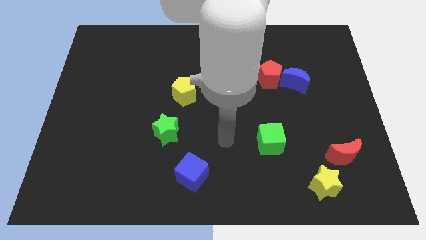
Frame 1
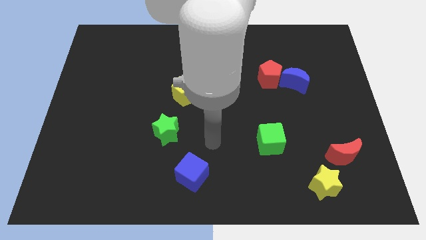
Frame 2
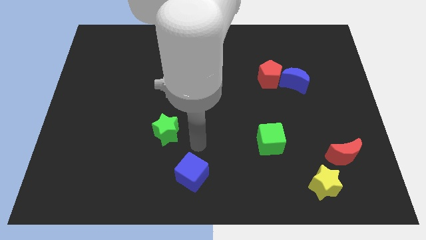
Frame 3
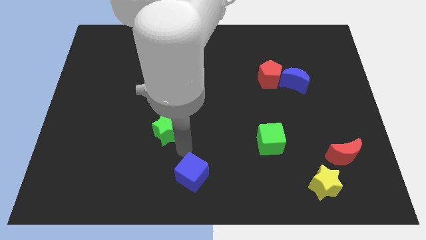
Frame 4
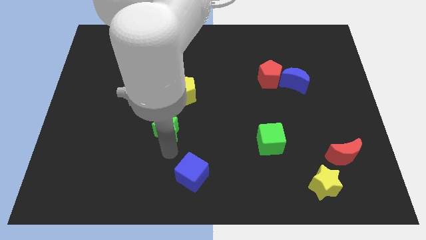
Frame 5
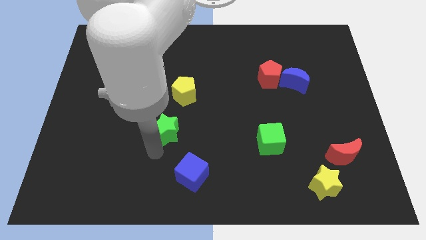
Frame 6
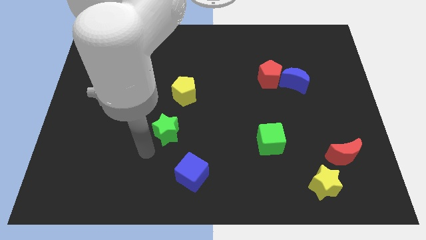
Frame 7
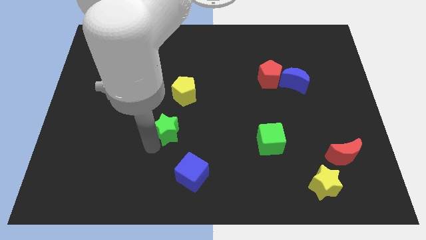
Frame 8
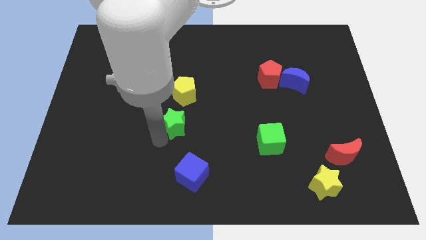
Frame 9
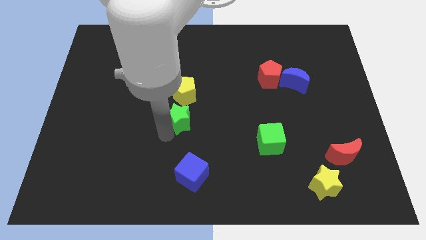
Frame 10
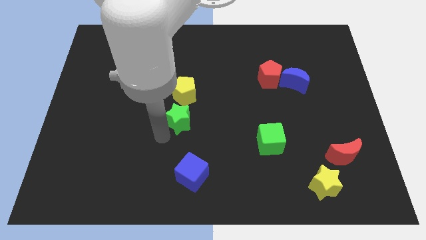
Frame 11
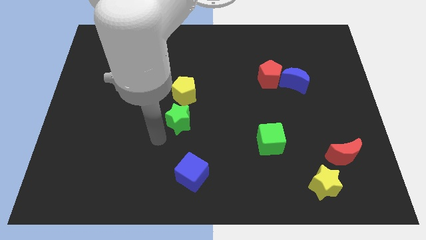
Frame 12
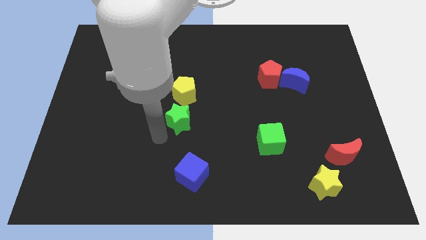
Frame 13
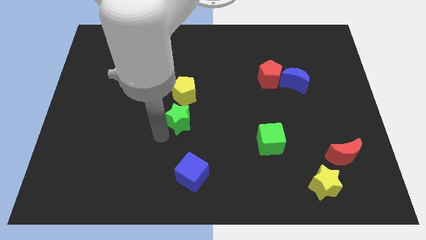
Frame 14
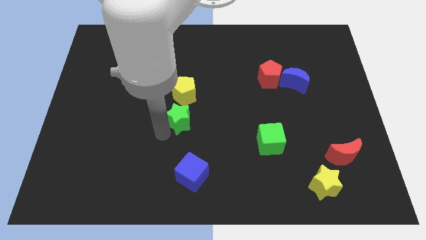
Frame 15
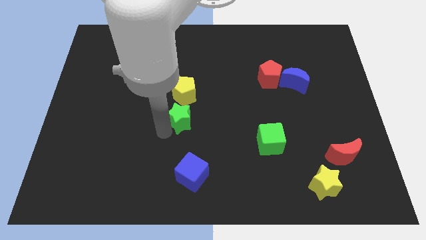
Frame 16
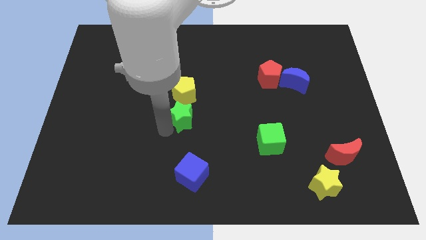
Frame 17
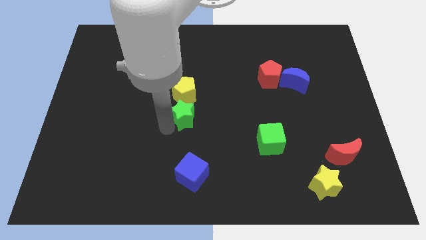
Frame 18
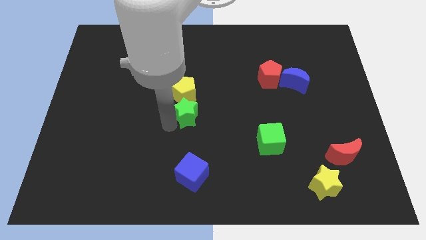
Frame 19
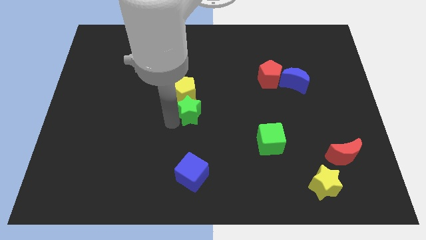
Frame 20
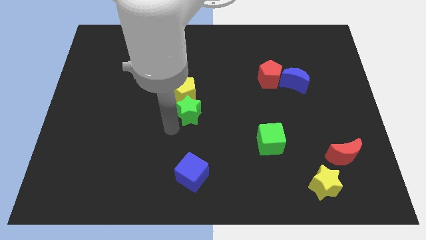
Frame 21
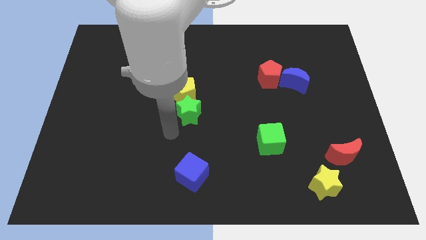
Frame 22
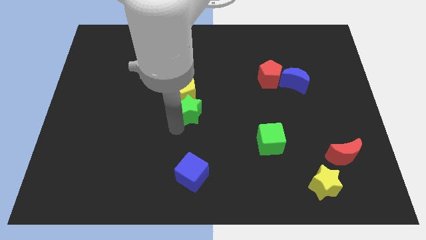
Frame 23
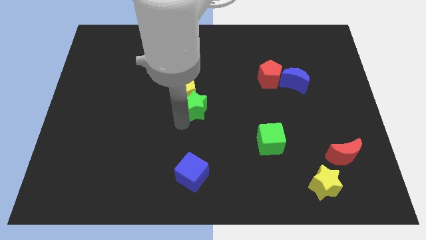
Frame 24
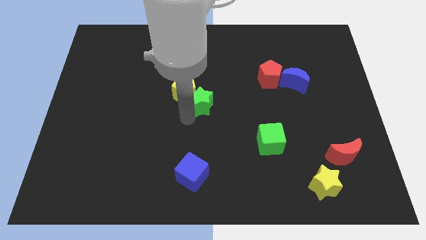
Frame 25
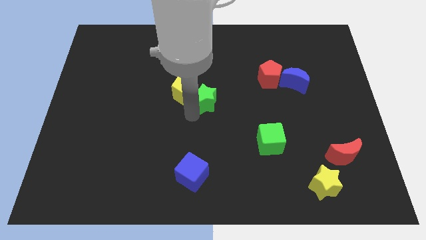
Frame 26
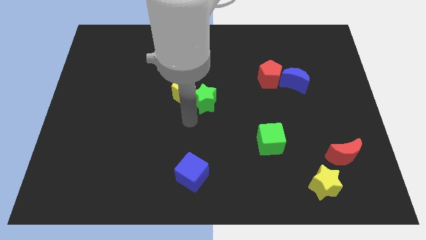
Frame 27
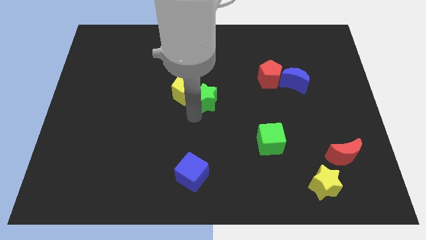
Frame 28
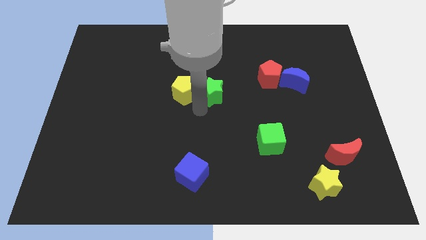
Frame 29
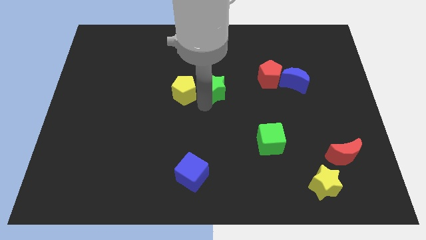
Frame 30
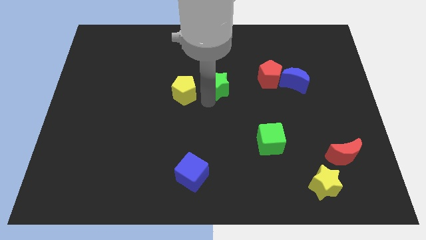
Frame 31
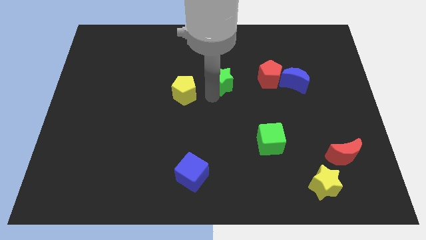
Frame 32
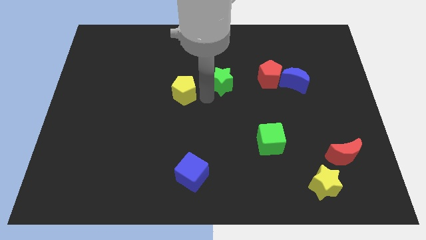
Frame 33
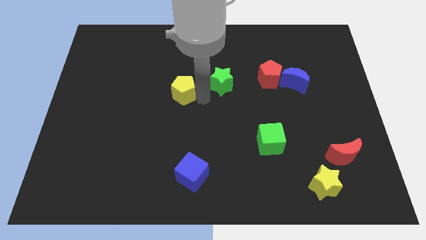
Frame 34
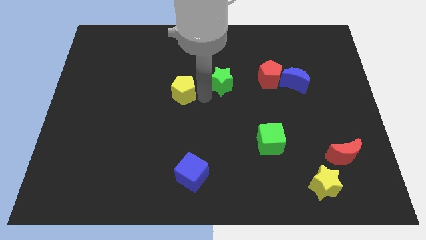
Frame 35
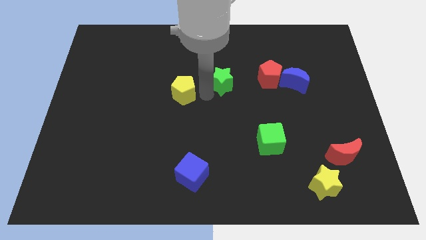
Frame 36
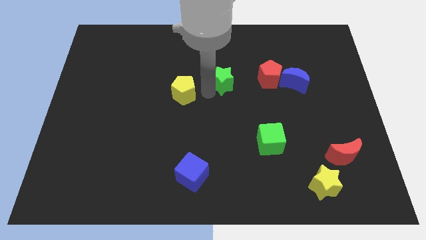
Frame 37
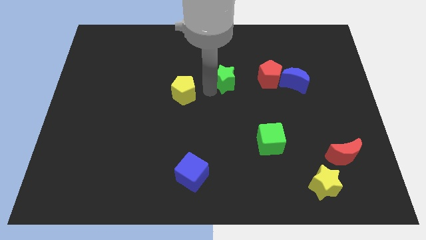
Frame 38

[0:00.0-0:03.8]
move the green star up and to the right

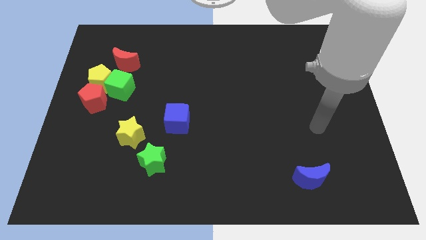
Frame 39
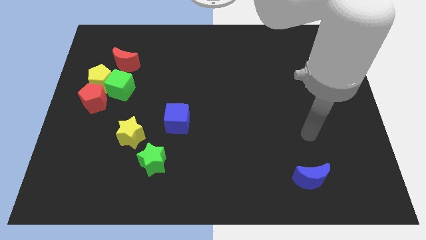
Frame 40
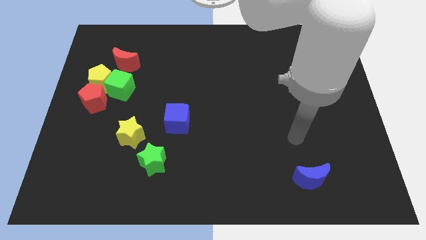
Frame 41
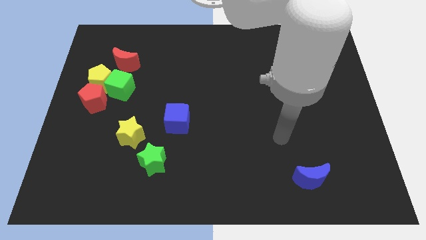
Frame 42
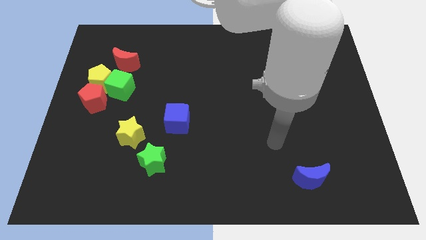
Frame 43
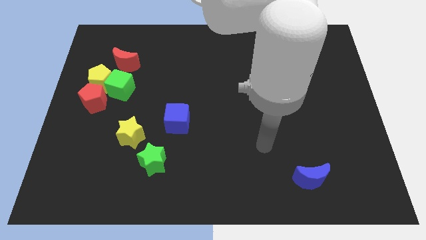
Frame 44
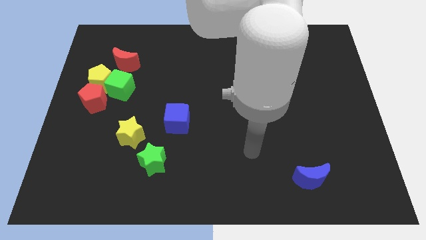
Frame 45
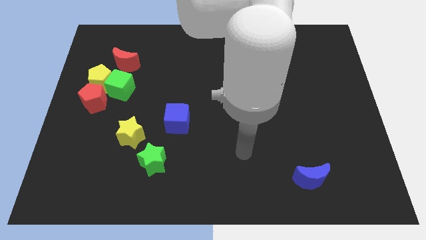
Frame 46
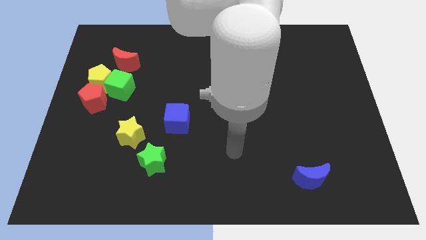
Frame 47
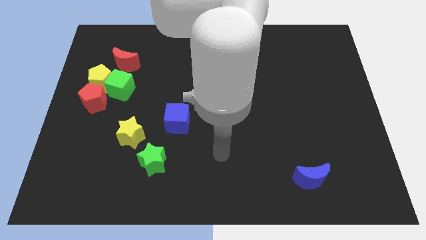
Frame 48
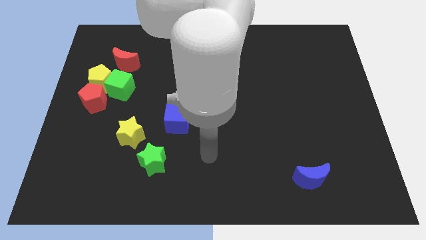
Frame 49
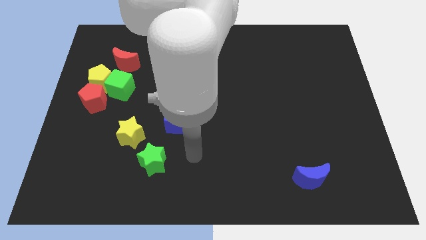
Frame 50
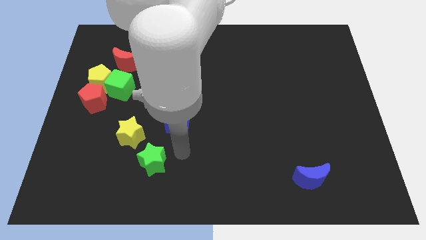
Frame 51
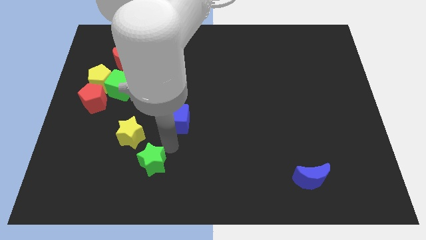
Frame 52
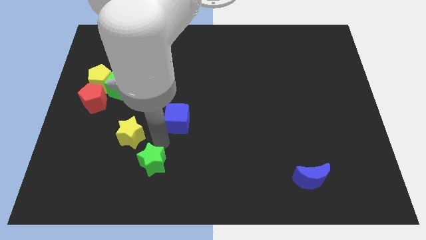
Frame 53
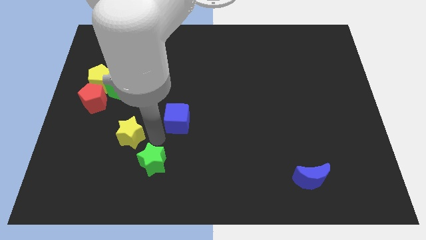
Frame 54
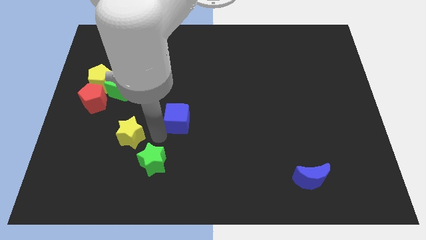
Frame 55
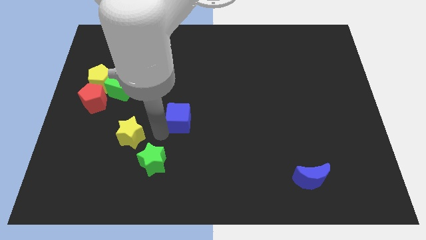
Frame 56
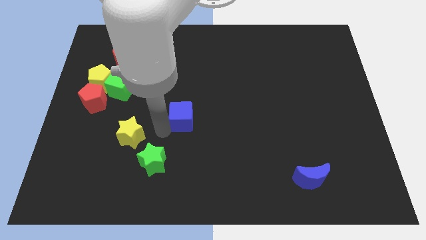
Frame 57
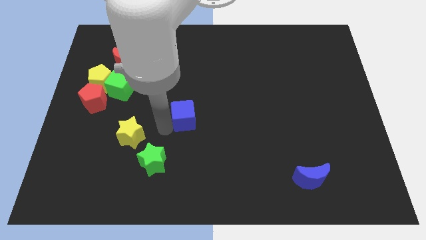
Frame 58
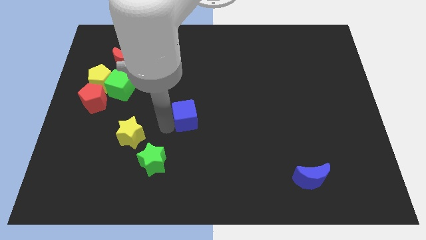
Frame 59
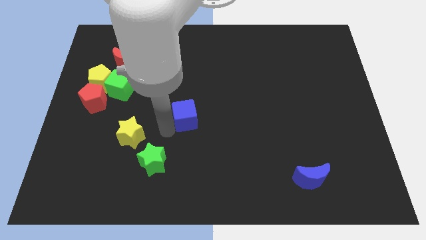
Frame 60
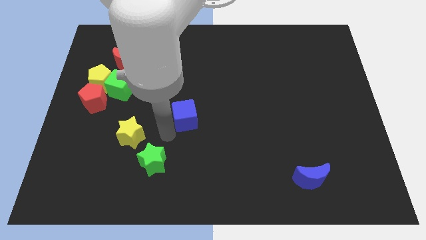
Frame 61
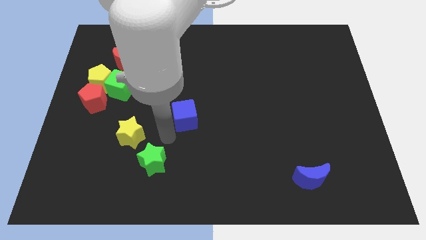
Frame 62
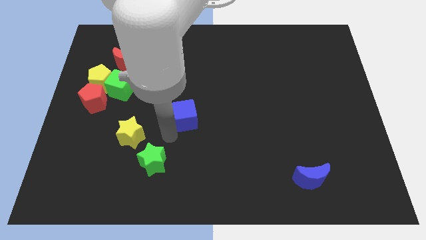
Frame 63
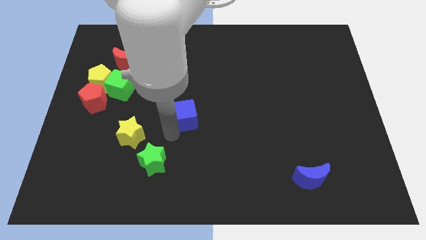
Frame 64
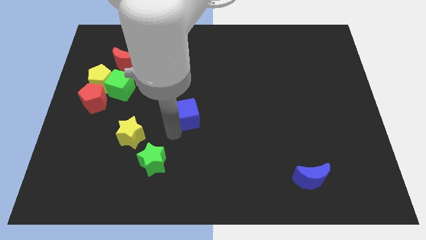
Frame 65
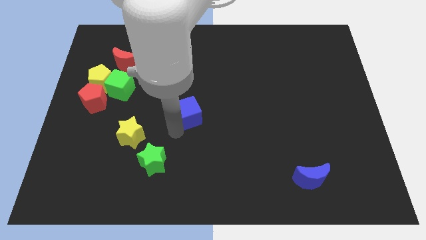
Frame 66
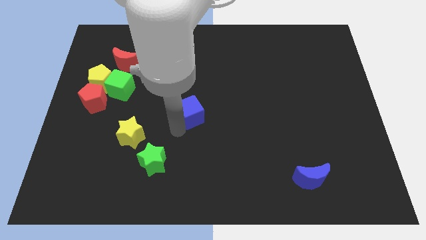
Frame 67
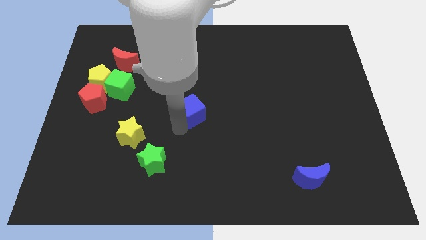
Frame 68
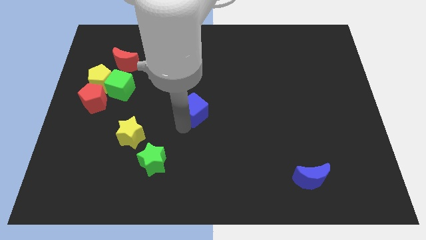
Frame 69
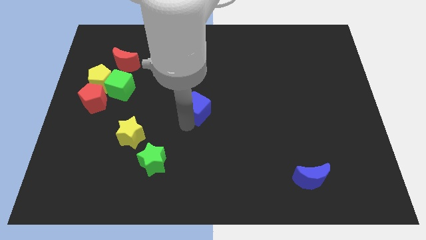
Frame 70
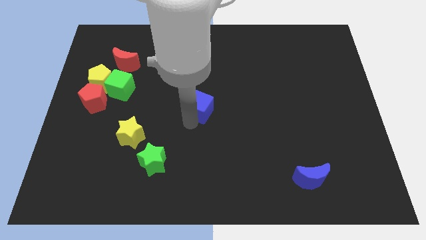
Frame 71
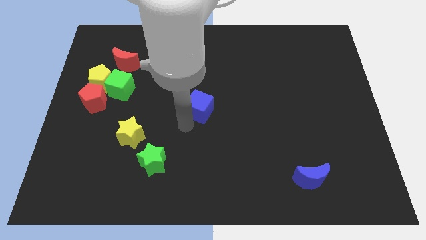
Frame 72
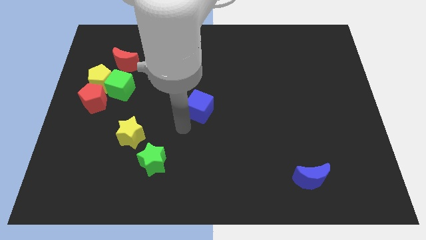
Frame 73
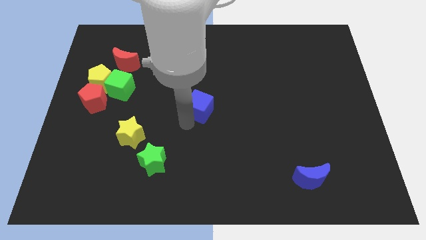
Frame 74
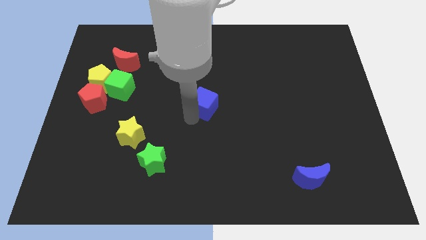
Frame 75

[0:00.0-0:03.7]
slightly slide the blue cube up and then to the right

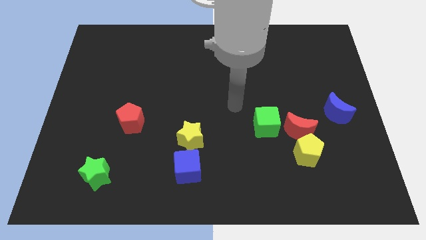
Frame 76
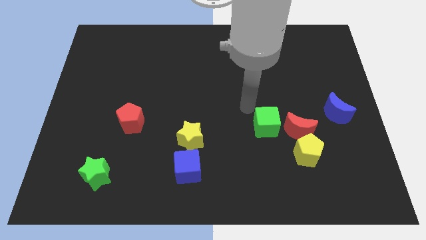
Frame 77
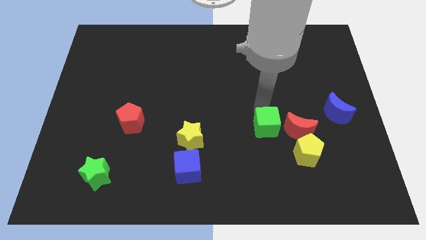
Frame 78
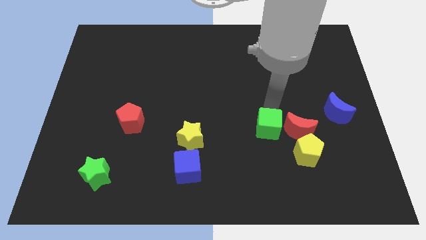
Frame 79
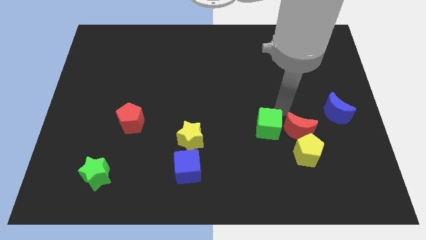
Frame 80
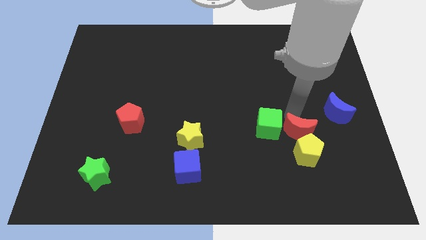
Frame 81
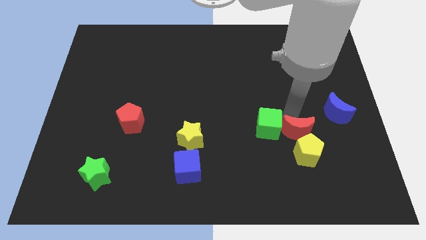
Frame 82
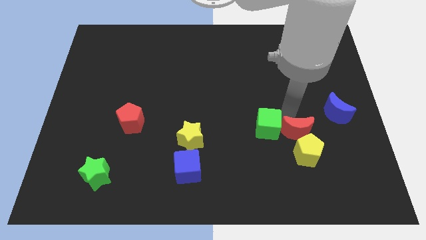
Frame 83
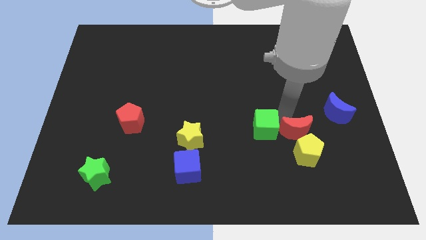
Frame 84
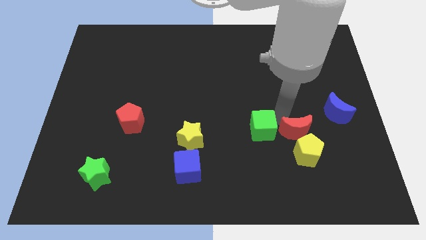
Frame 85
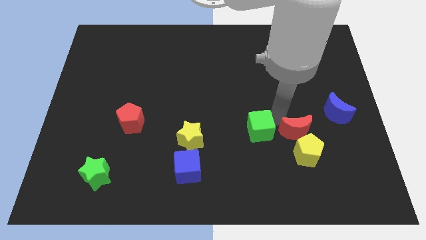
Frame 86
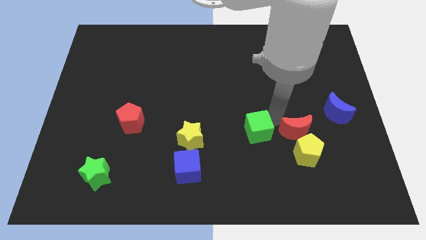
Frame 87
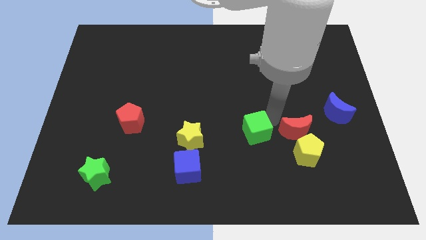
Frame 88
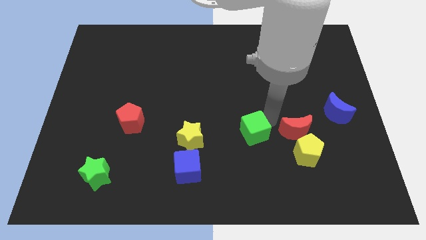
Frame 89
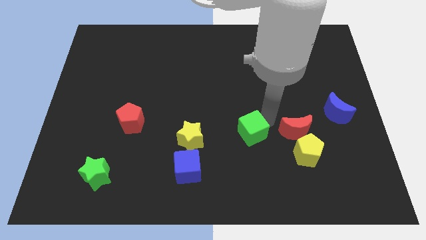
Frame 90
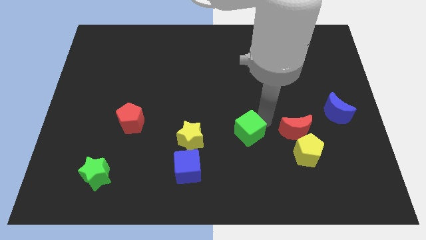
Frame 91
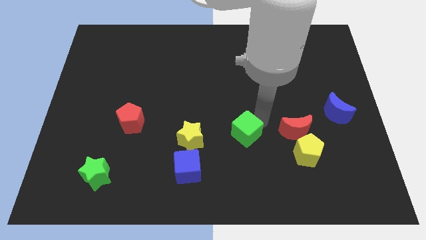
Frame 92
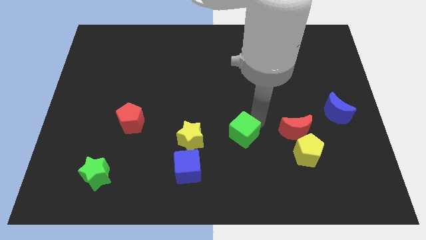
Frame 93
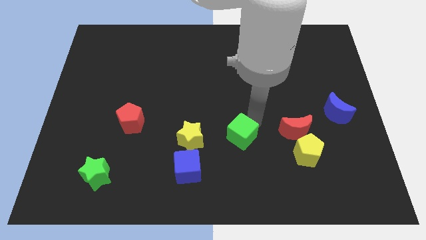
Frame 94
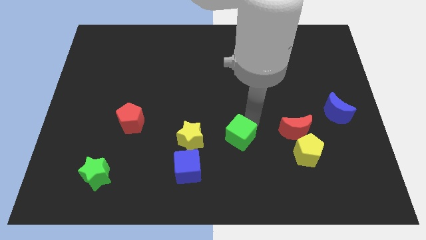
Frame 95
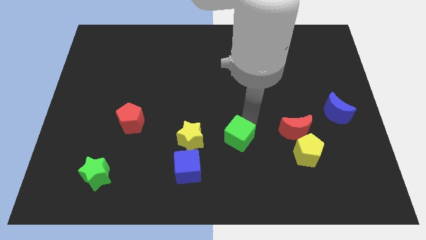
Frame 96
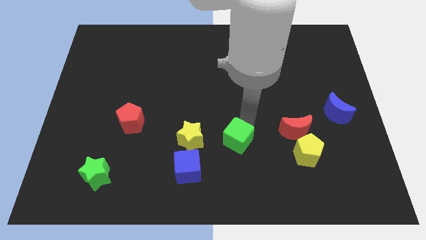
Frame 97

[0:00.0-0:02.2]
slightly push the green cube diagonally down and left
